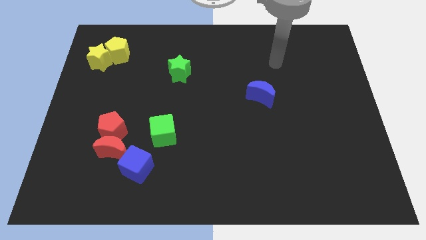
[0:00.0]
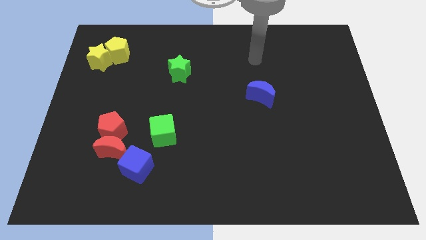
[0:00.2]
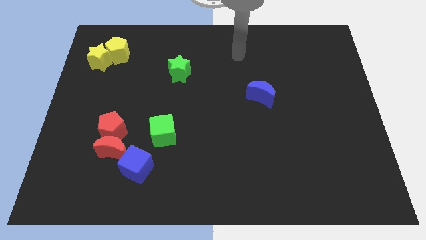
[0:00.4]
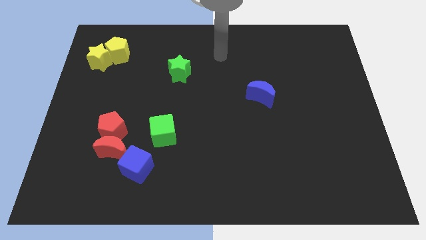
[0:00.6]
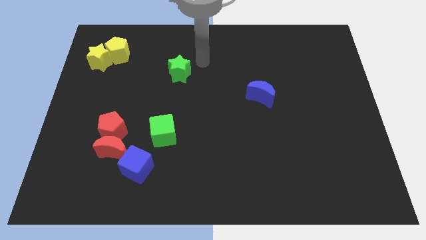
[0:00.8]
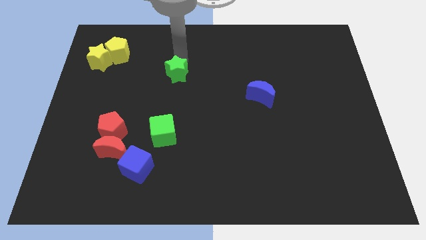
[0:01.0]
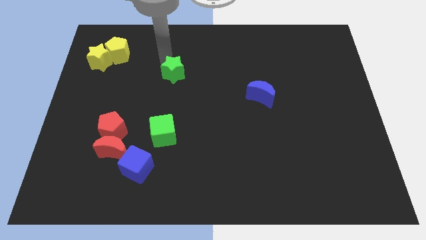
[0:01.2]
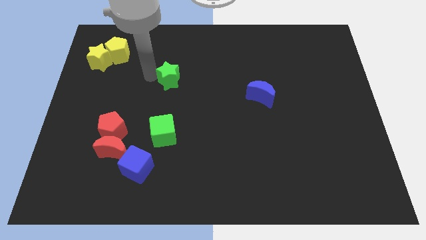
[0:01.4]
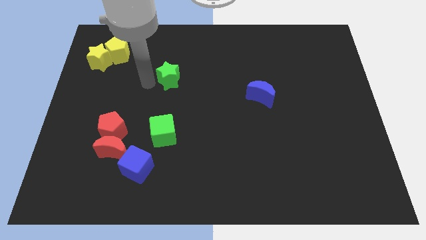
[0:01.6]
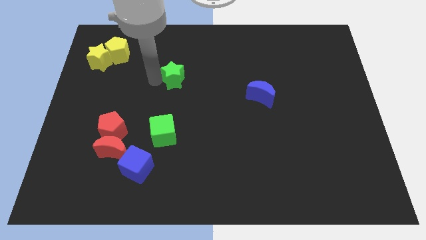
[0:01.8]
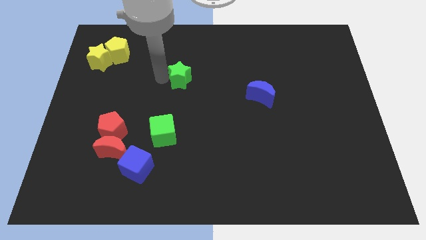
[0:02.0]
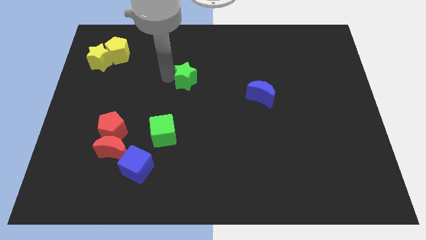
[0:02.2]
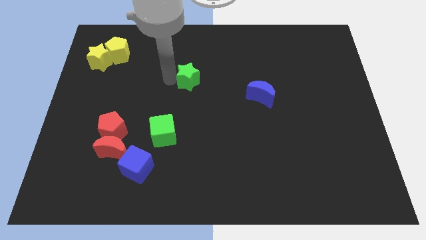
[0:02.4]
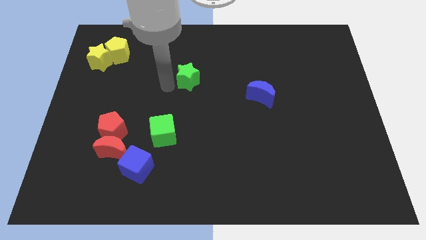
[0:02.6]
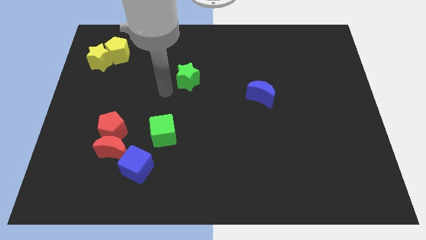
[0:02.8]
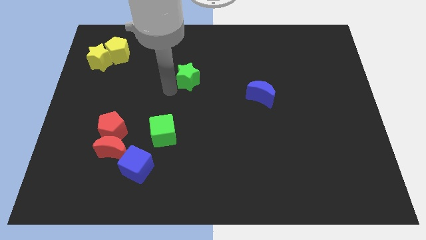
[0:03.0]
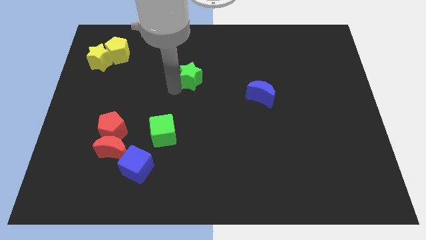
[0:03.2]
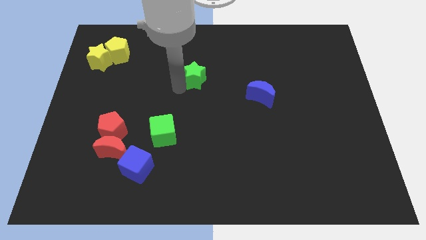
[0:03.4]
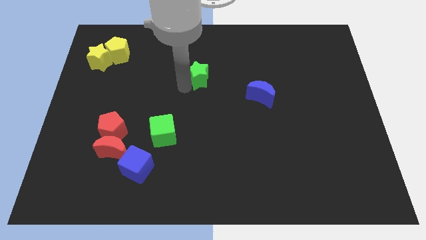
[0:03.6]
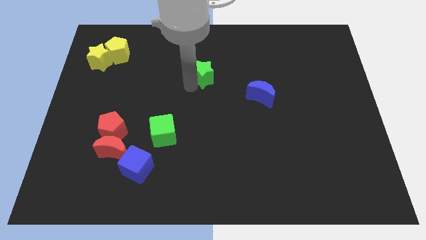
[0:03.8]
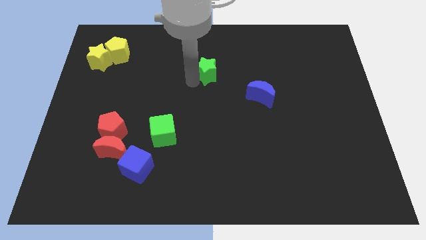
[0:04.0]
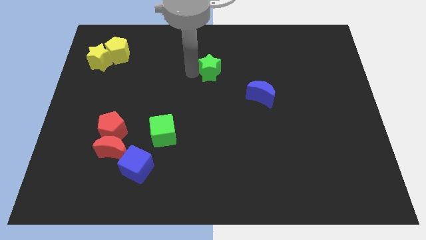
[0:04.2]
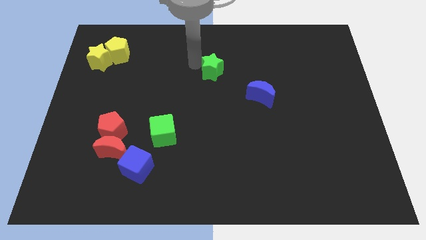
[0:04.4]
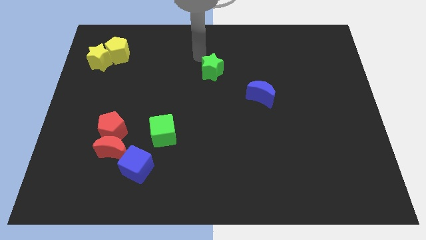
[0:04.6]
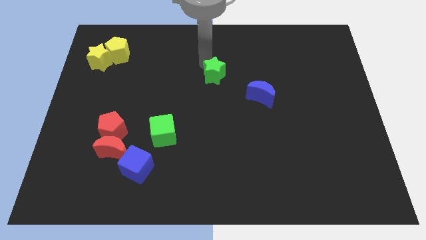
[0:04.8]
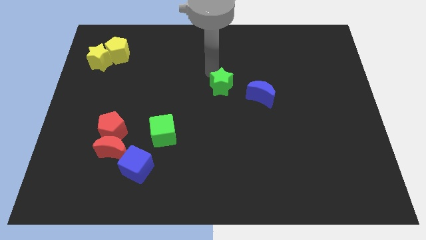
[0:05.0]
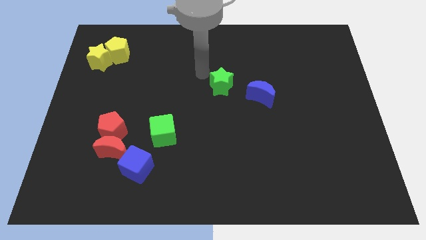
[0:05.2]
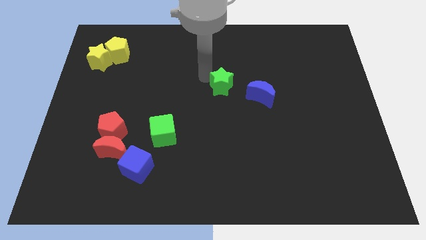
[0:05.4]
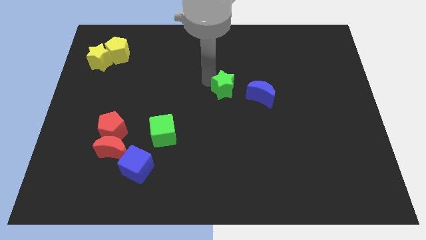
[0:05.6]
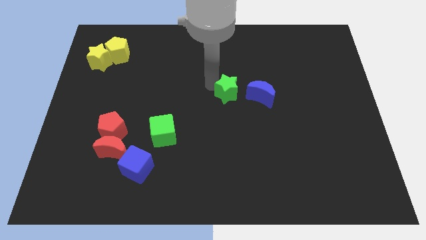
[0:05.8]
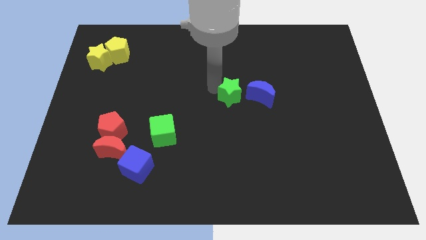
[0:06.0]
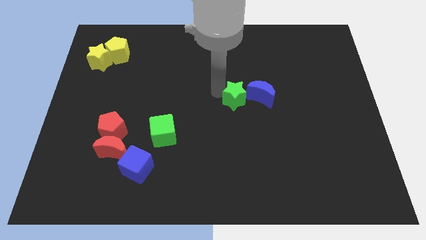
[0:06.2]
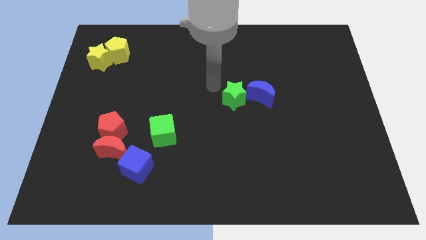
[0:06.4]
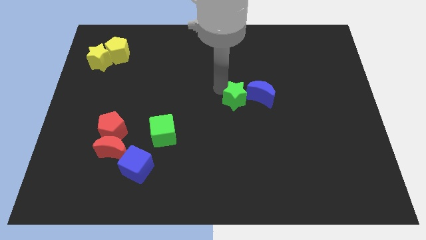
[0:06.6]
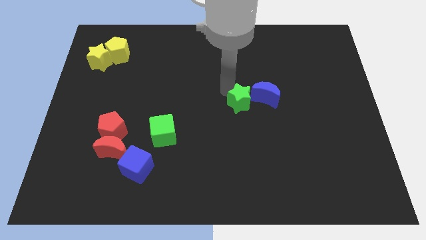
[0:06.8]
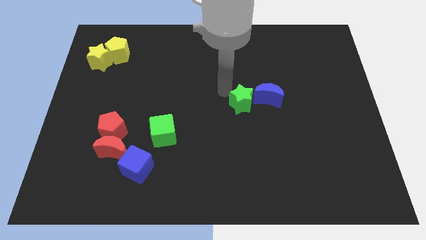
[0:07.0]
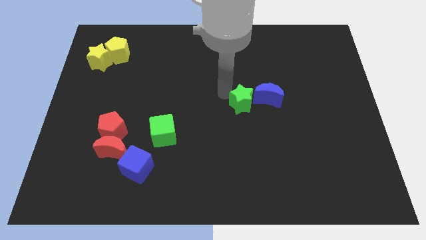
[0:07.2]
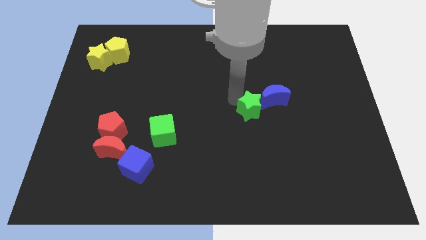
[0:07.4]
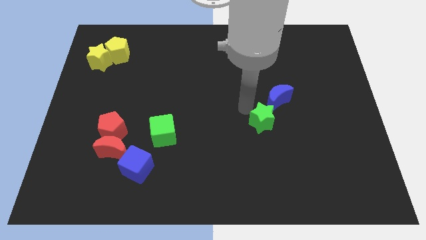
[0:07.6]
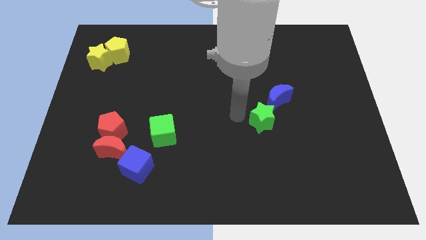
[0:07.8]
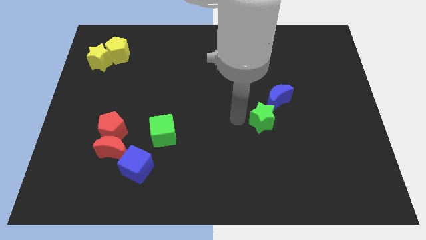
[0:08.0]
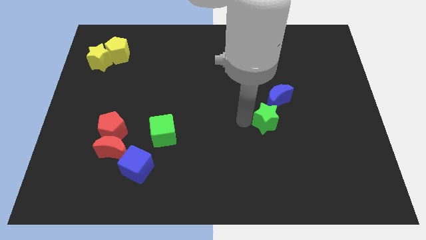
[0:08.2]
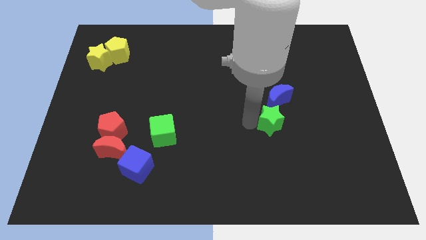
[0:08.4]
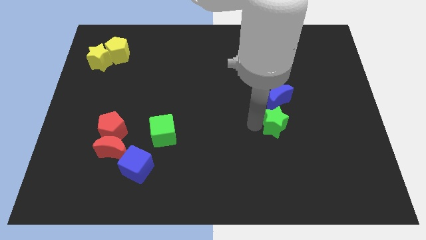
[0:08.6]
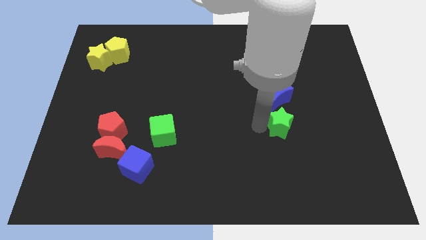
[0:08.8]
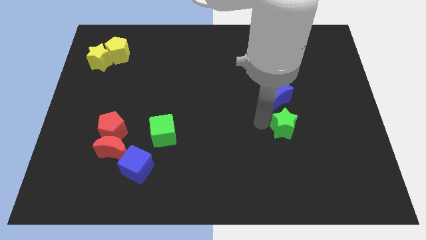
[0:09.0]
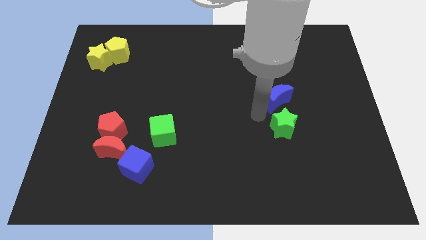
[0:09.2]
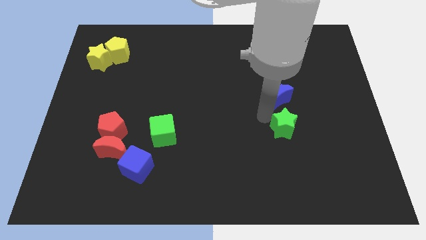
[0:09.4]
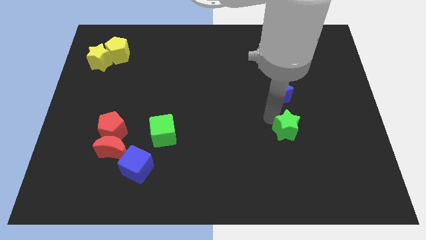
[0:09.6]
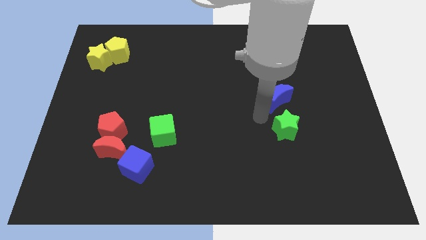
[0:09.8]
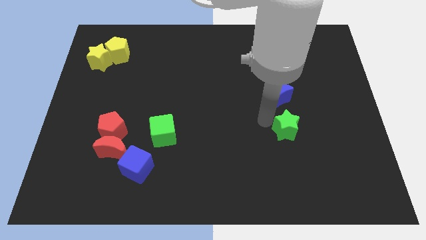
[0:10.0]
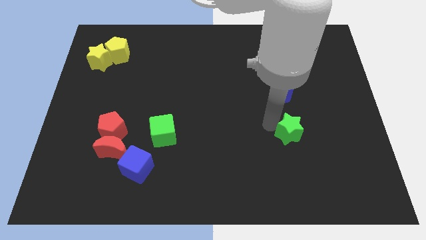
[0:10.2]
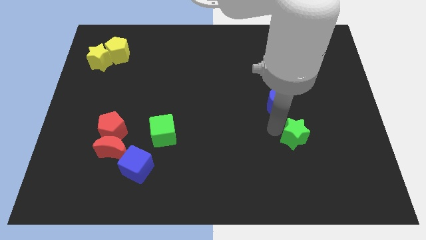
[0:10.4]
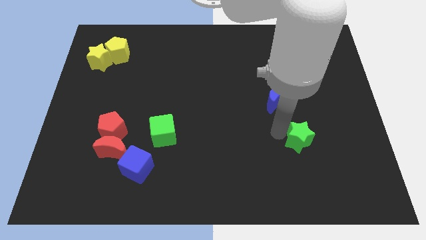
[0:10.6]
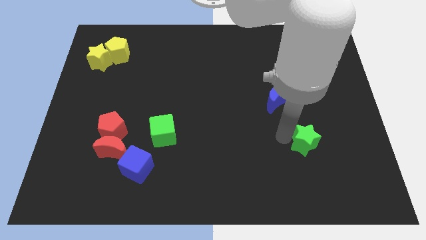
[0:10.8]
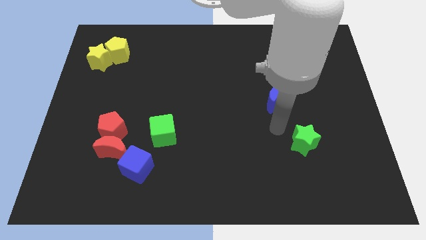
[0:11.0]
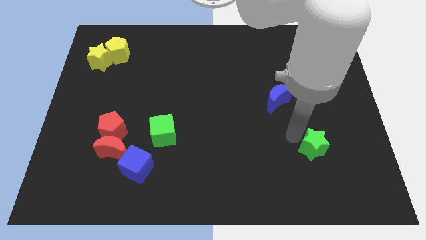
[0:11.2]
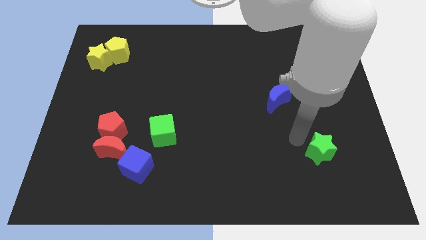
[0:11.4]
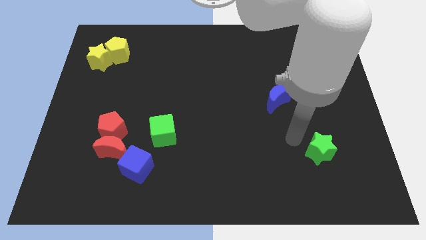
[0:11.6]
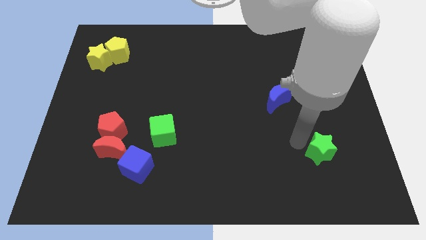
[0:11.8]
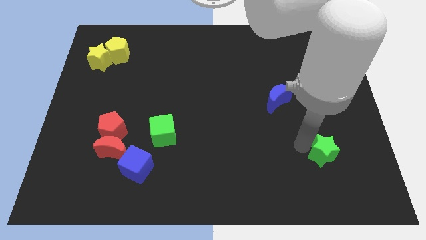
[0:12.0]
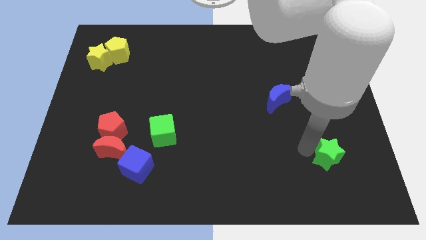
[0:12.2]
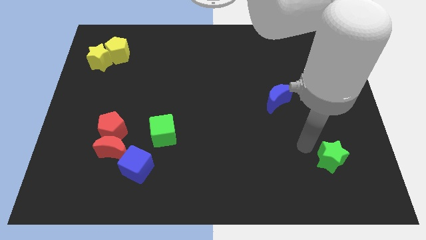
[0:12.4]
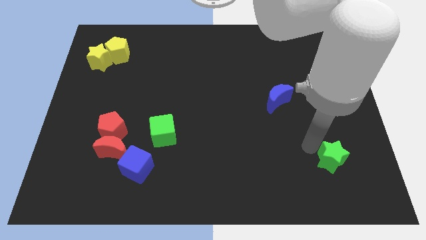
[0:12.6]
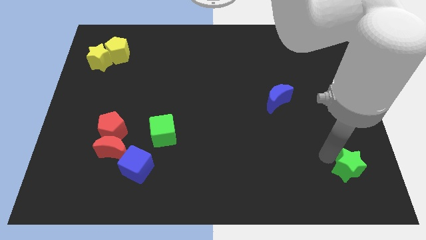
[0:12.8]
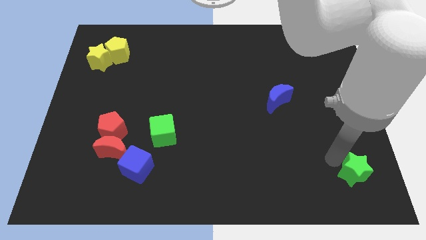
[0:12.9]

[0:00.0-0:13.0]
push the green star to the bottom right of the board
